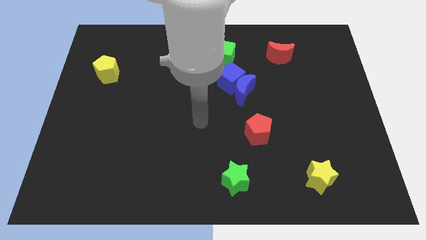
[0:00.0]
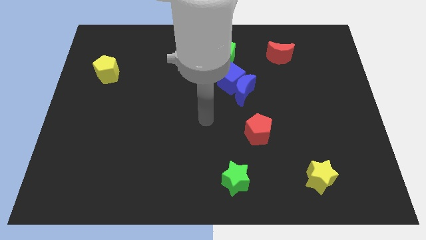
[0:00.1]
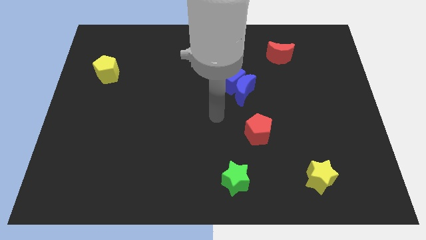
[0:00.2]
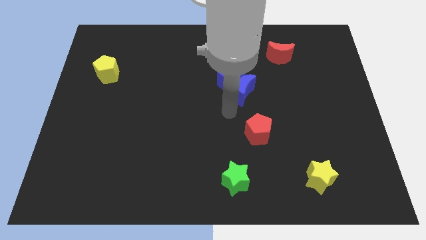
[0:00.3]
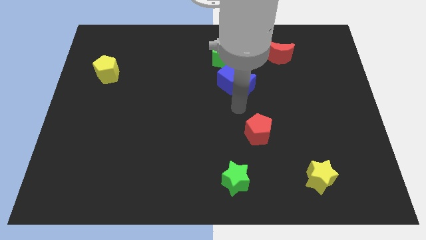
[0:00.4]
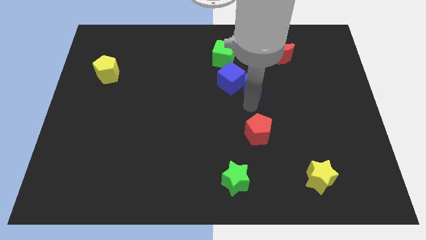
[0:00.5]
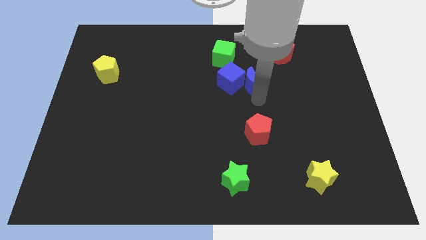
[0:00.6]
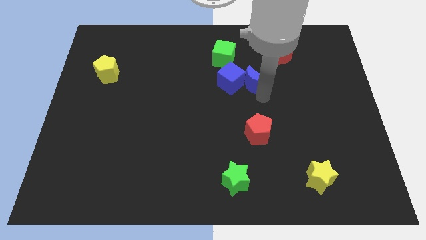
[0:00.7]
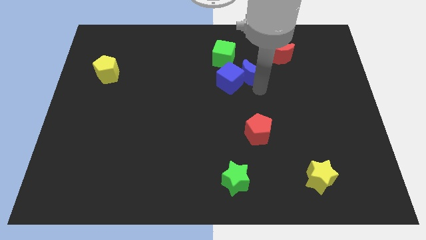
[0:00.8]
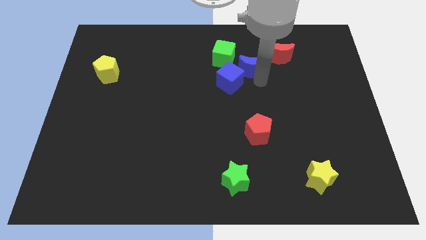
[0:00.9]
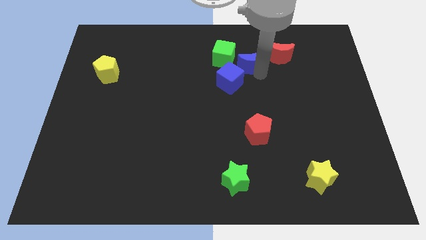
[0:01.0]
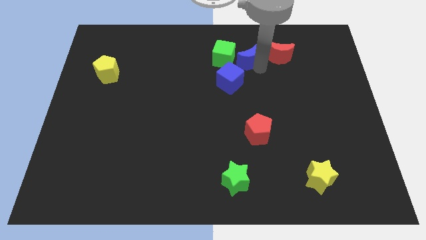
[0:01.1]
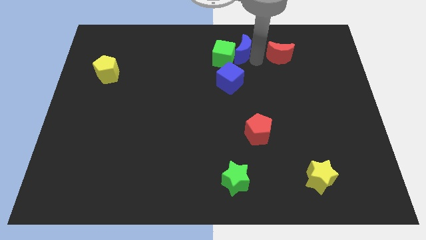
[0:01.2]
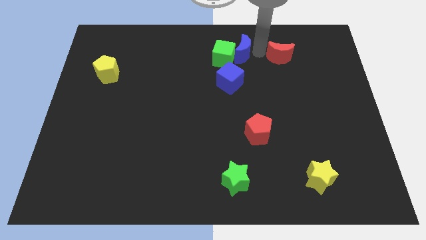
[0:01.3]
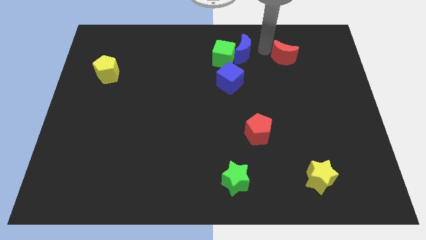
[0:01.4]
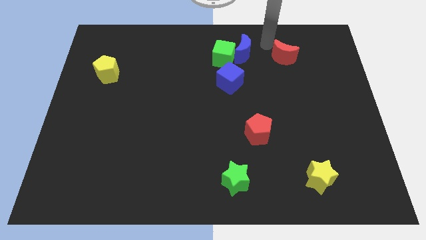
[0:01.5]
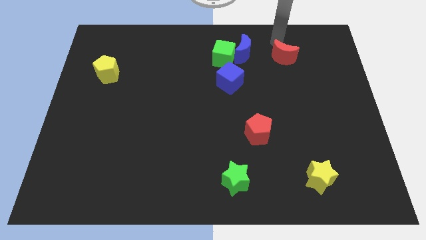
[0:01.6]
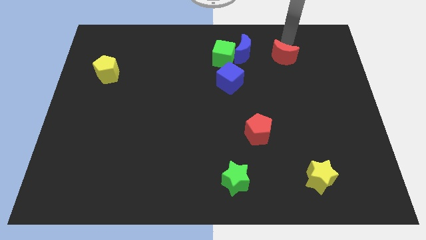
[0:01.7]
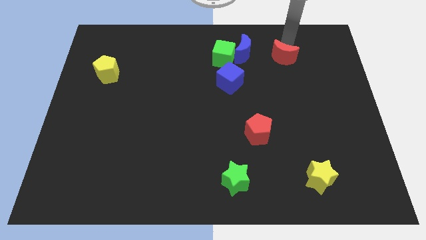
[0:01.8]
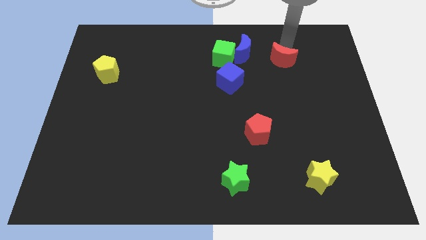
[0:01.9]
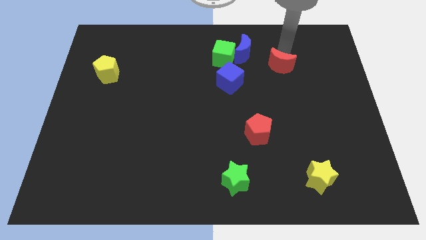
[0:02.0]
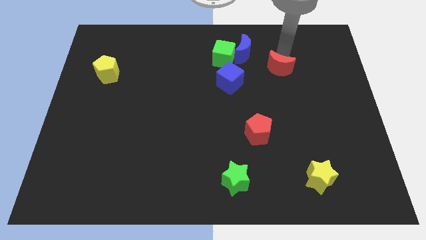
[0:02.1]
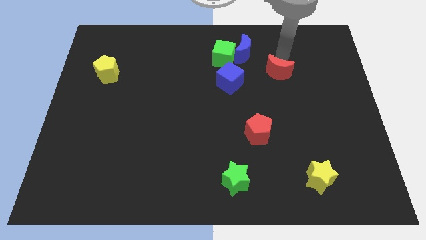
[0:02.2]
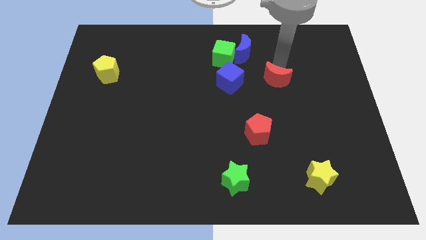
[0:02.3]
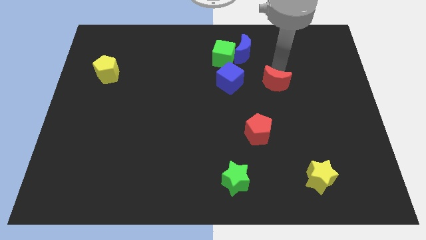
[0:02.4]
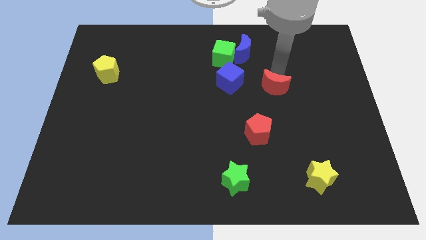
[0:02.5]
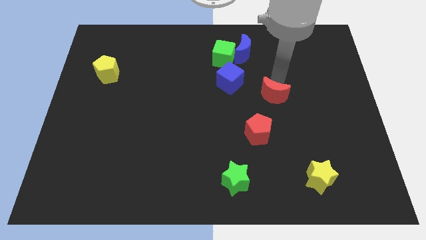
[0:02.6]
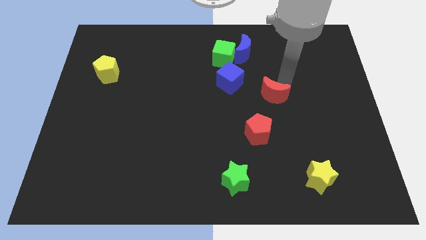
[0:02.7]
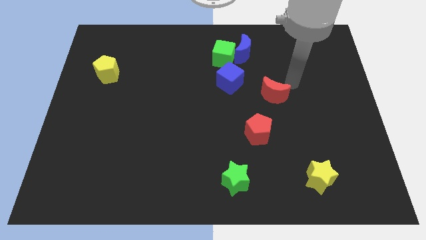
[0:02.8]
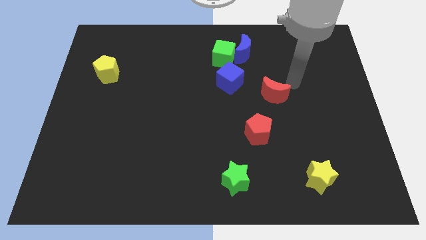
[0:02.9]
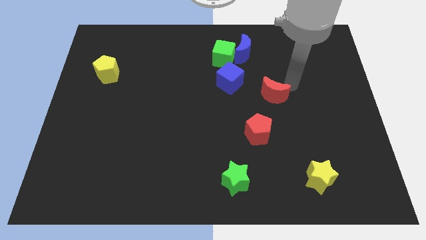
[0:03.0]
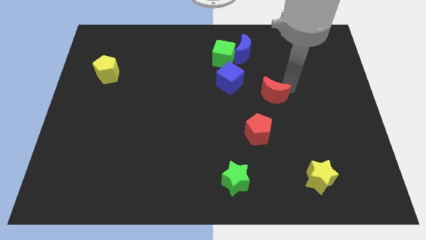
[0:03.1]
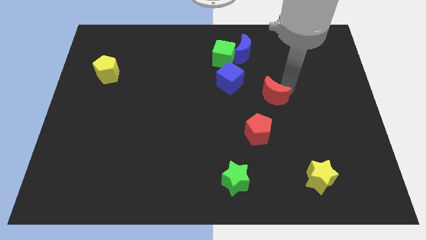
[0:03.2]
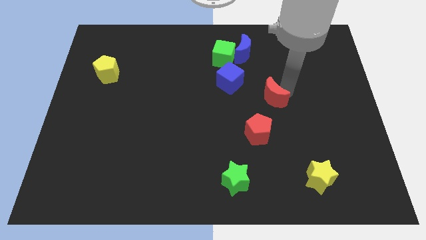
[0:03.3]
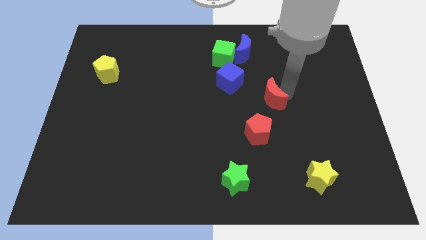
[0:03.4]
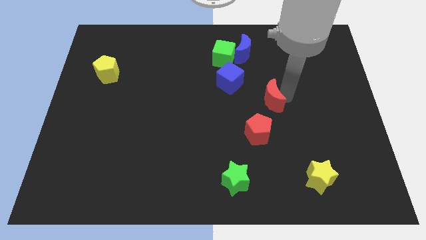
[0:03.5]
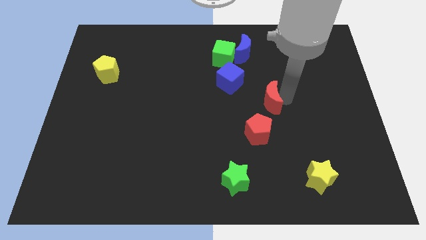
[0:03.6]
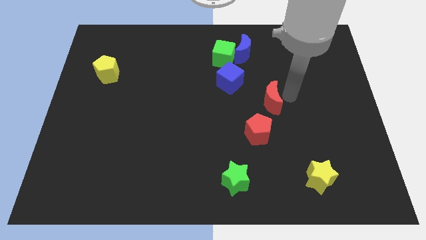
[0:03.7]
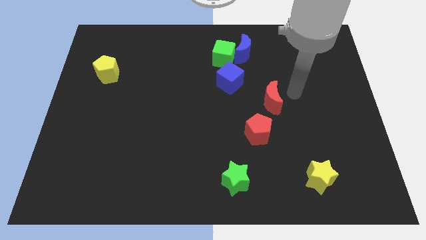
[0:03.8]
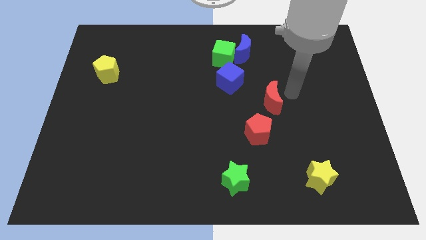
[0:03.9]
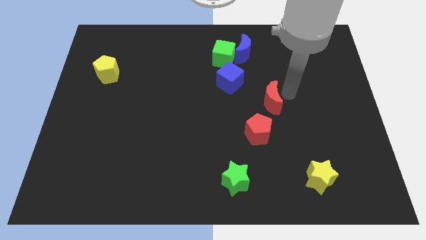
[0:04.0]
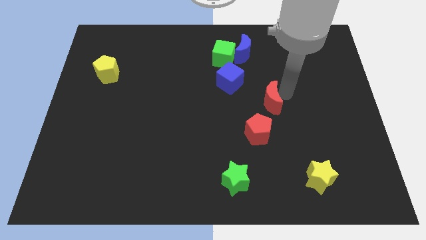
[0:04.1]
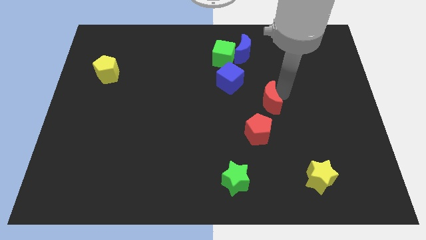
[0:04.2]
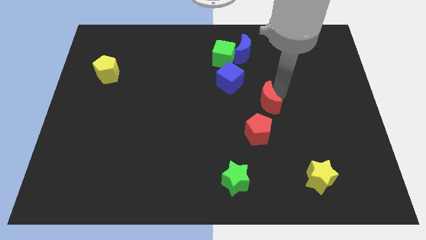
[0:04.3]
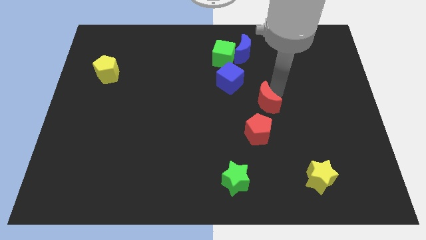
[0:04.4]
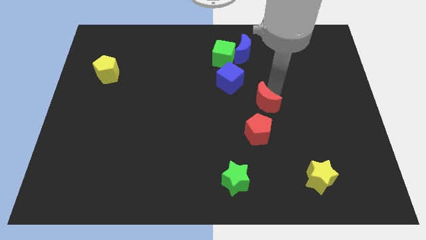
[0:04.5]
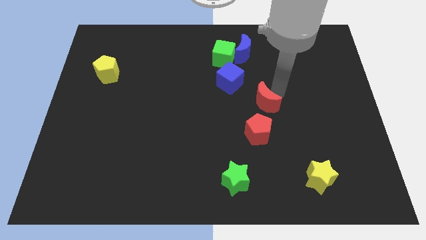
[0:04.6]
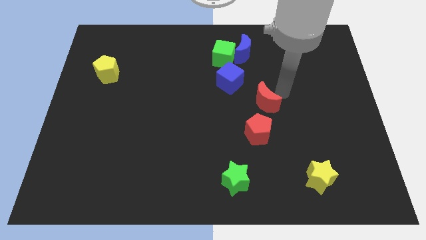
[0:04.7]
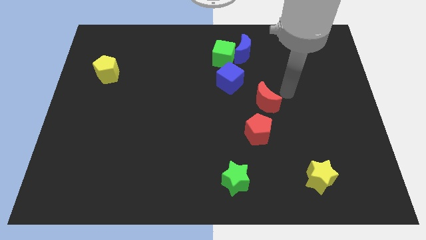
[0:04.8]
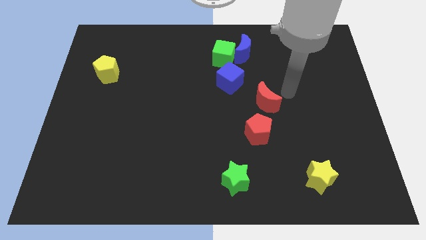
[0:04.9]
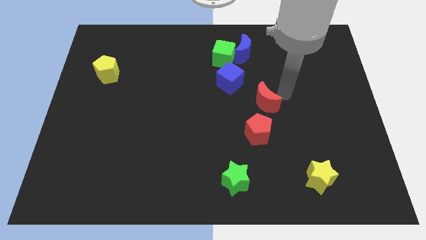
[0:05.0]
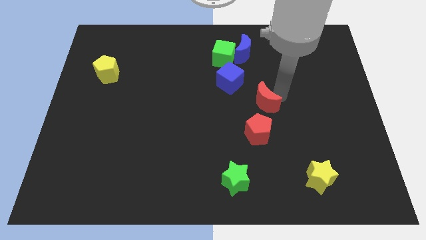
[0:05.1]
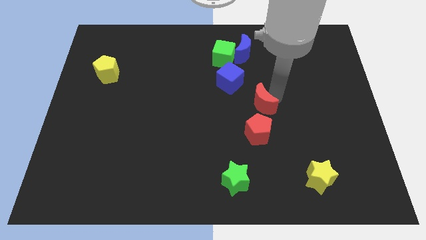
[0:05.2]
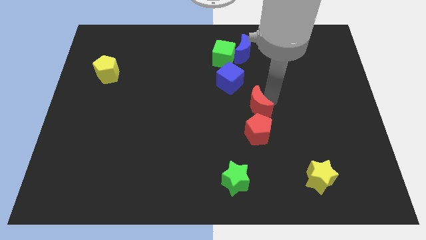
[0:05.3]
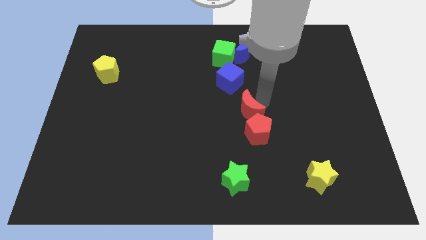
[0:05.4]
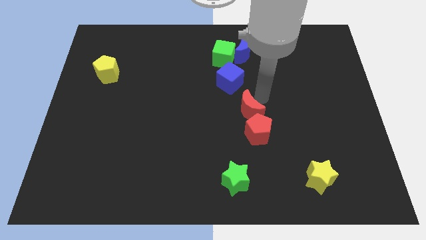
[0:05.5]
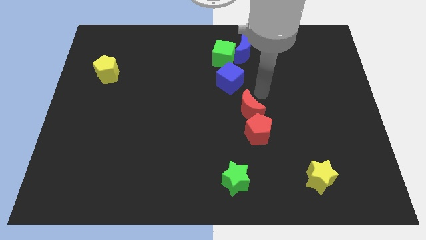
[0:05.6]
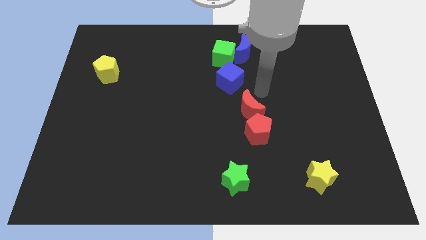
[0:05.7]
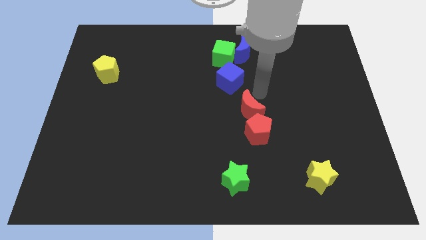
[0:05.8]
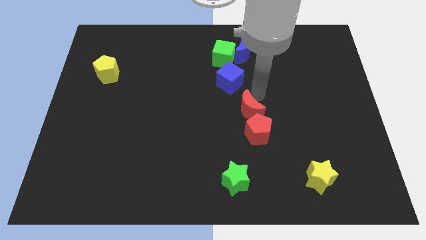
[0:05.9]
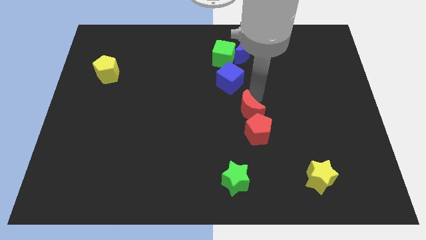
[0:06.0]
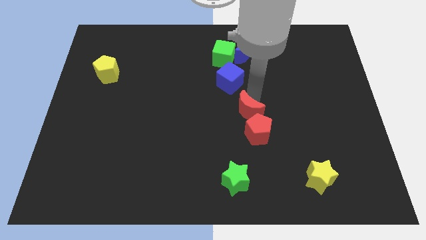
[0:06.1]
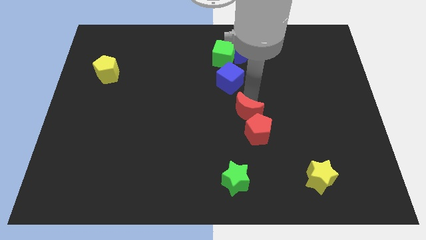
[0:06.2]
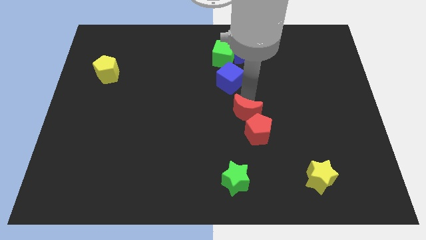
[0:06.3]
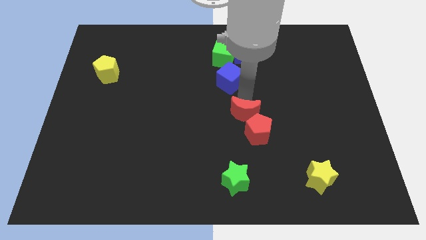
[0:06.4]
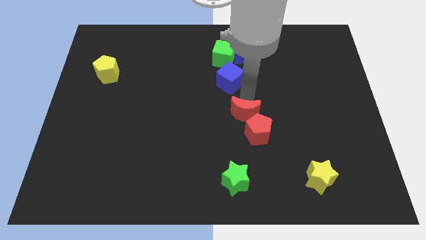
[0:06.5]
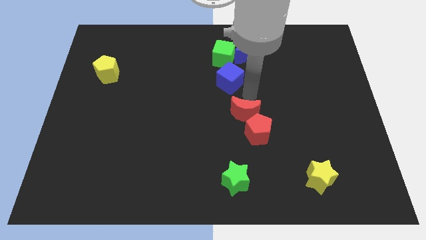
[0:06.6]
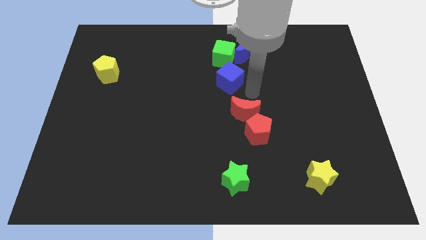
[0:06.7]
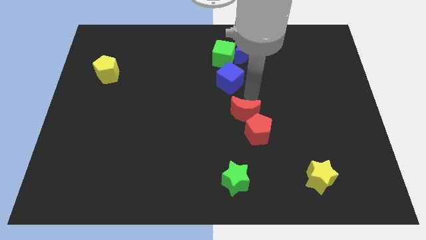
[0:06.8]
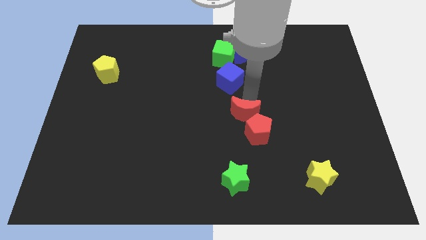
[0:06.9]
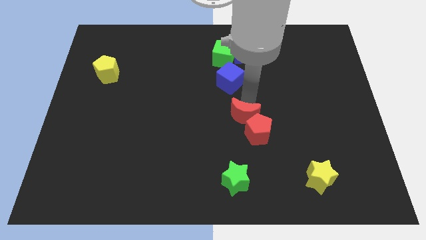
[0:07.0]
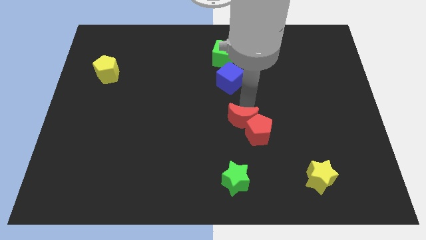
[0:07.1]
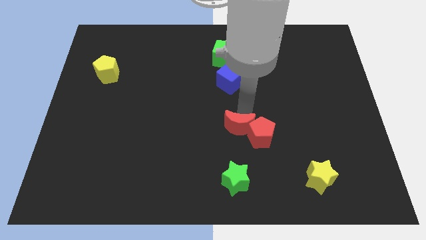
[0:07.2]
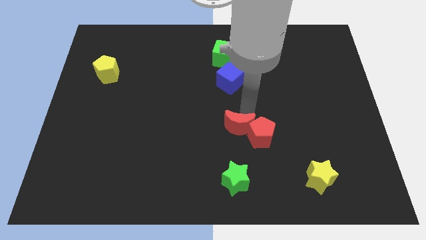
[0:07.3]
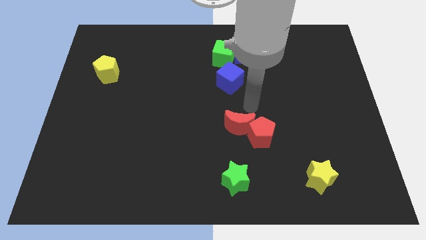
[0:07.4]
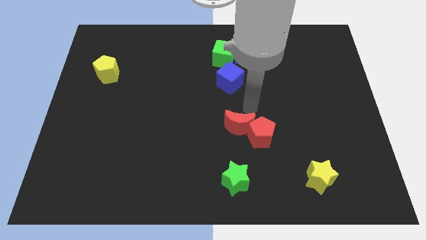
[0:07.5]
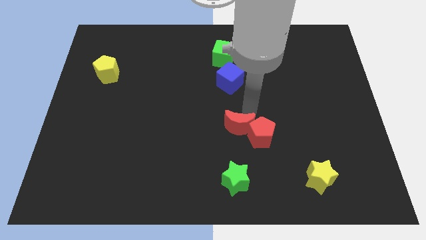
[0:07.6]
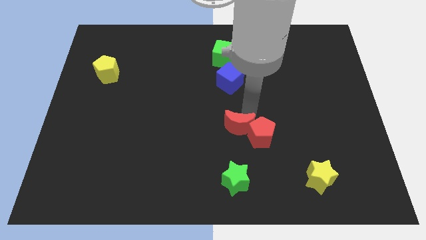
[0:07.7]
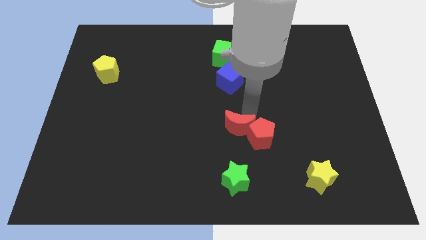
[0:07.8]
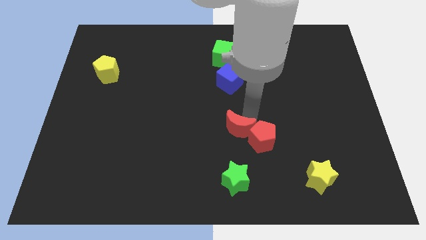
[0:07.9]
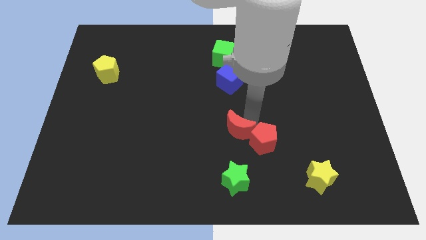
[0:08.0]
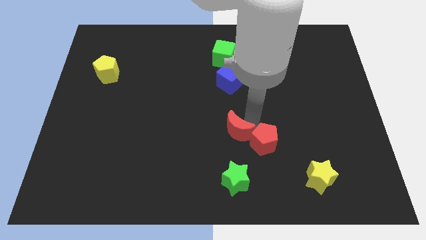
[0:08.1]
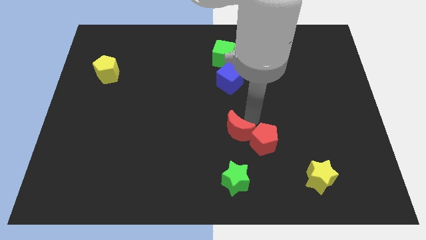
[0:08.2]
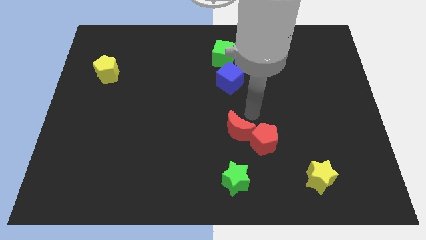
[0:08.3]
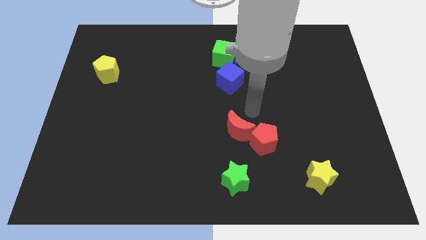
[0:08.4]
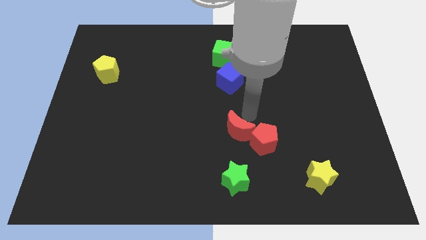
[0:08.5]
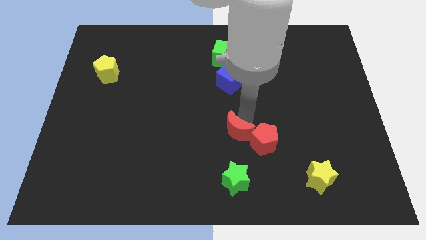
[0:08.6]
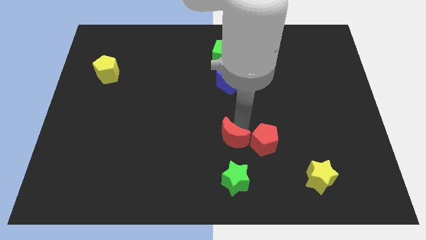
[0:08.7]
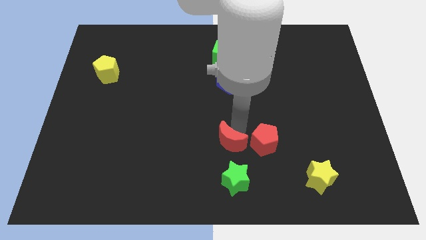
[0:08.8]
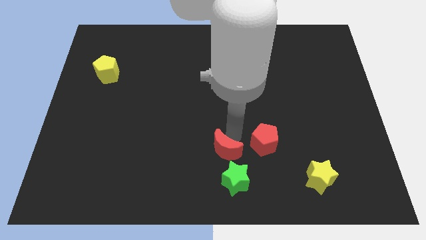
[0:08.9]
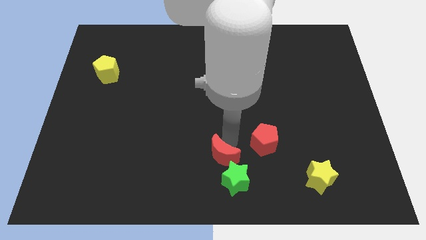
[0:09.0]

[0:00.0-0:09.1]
put the red moon to the bottom
